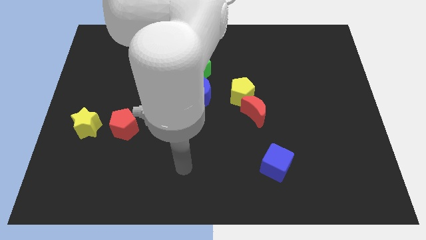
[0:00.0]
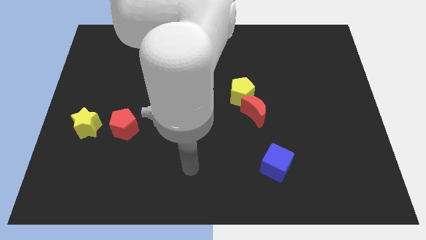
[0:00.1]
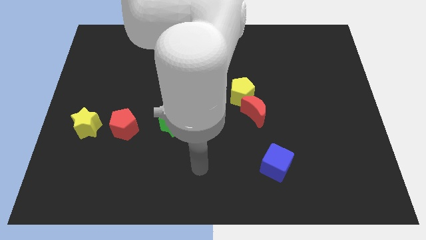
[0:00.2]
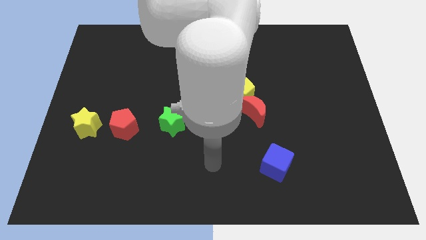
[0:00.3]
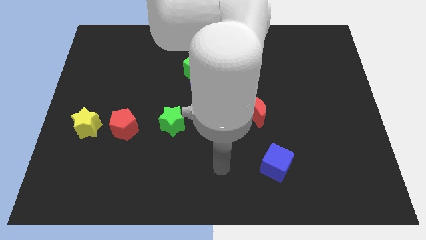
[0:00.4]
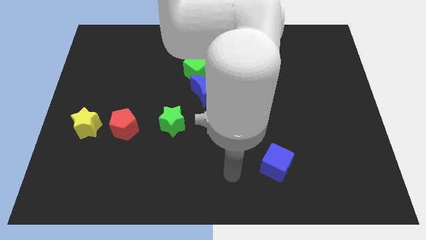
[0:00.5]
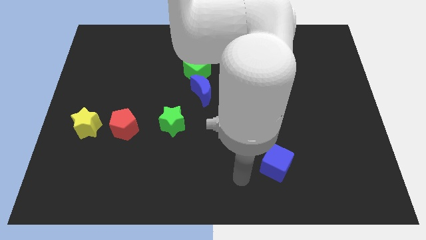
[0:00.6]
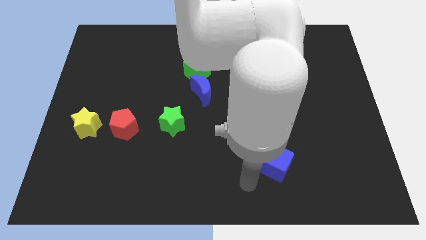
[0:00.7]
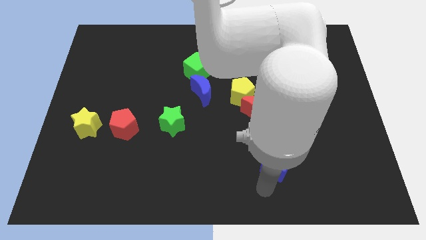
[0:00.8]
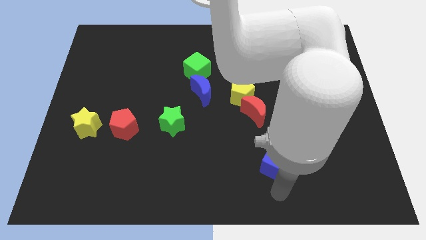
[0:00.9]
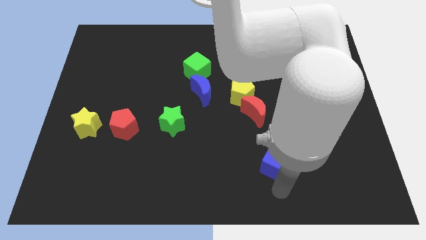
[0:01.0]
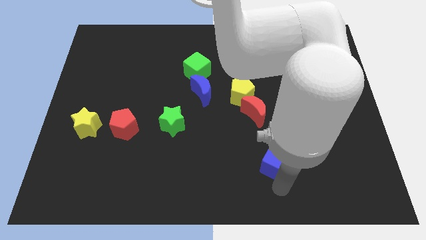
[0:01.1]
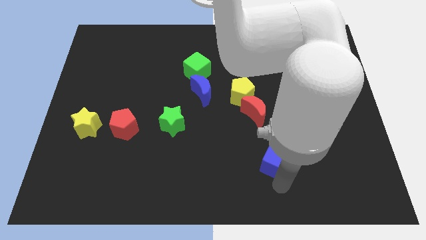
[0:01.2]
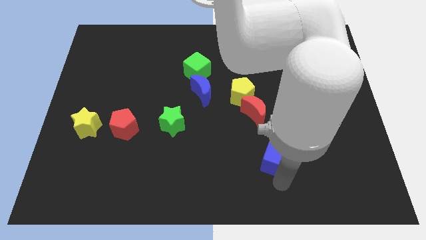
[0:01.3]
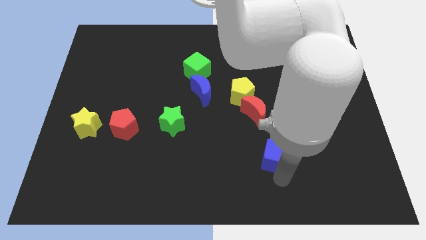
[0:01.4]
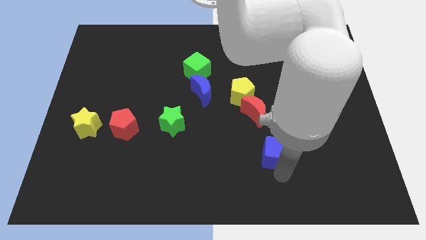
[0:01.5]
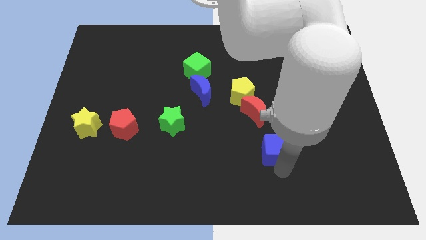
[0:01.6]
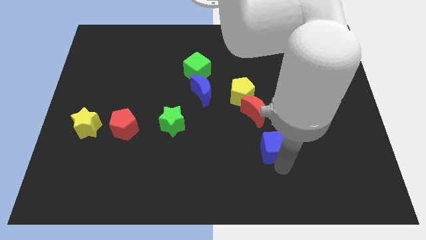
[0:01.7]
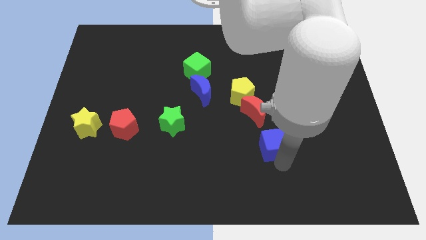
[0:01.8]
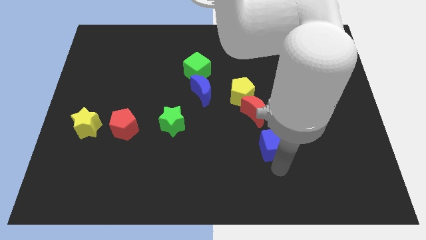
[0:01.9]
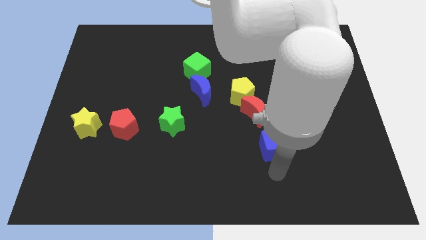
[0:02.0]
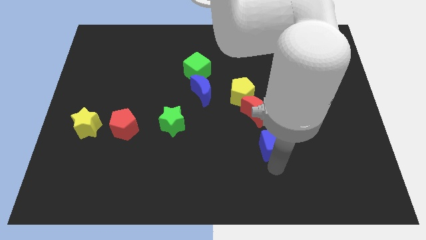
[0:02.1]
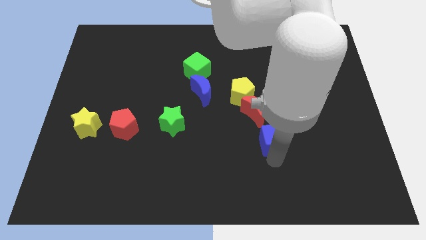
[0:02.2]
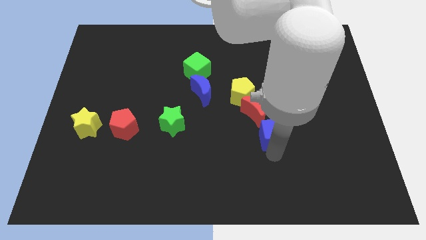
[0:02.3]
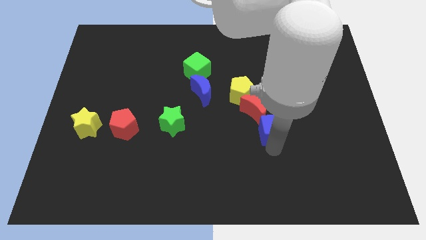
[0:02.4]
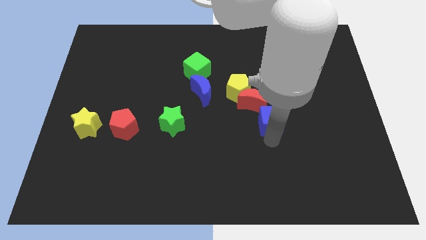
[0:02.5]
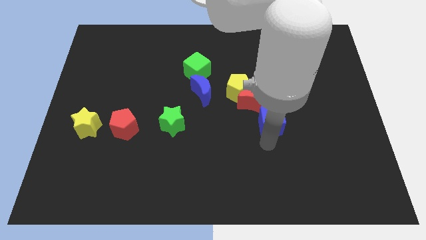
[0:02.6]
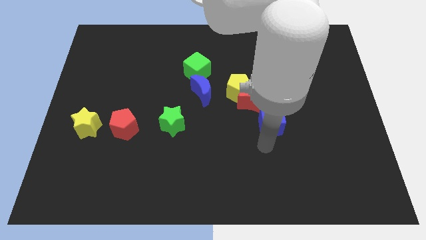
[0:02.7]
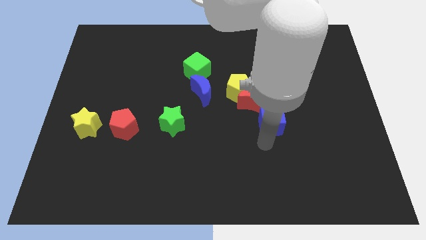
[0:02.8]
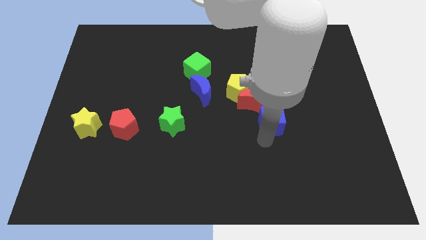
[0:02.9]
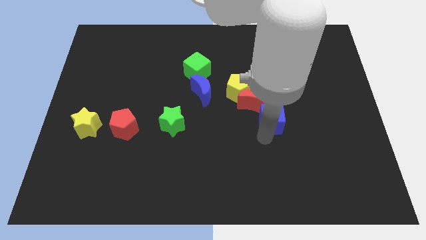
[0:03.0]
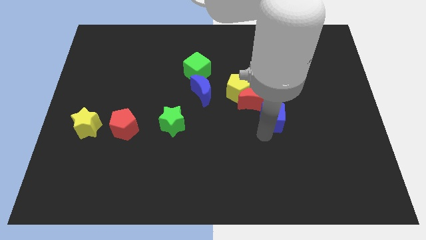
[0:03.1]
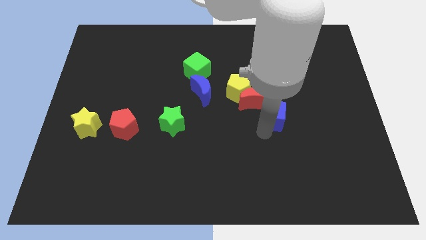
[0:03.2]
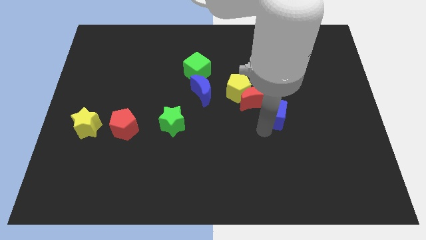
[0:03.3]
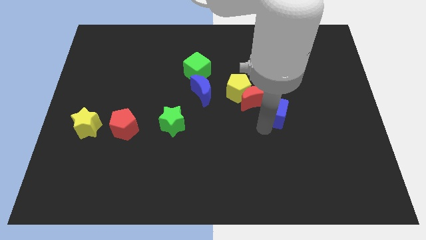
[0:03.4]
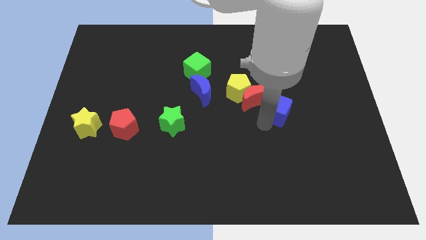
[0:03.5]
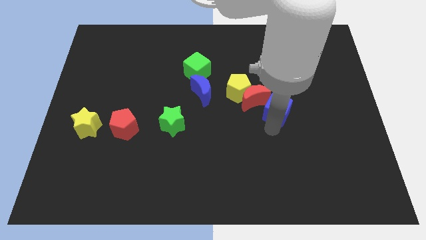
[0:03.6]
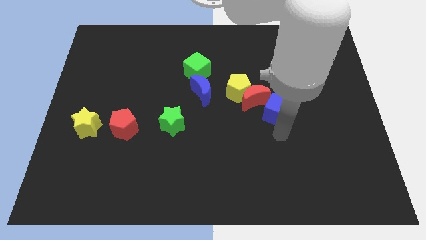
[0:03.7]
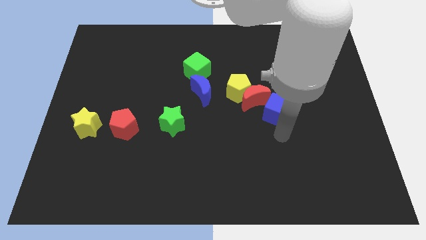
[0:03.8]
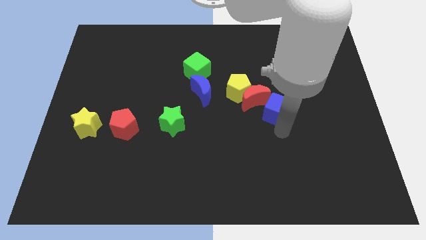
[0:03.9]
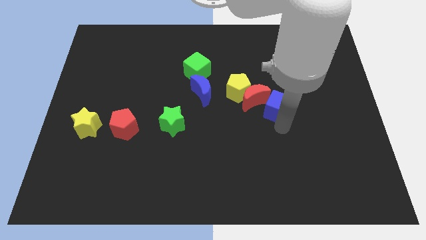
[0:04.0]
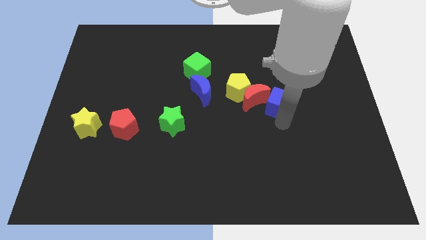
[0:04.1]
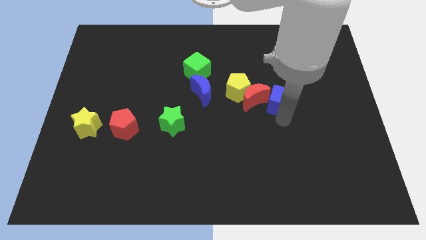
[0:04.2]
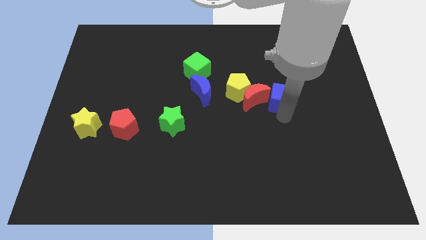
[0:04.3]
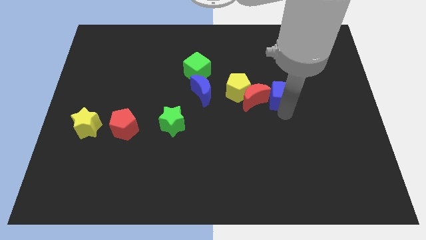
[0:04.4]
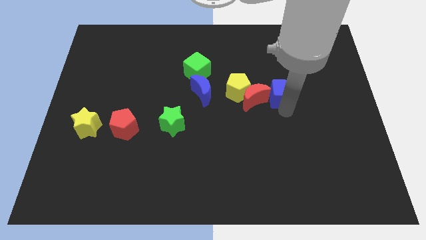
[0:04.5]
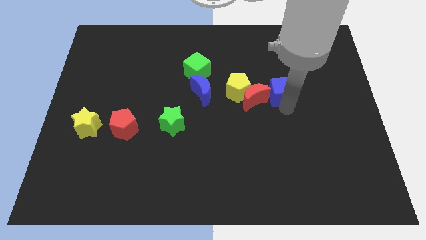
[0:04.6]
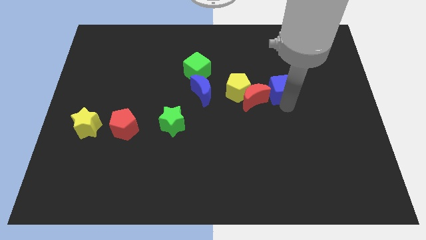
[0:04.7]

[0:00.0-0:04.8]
slide the blue cube up

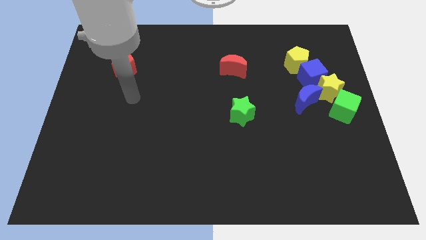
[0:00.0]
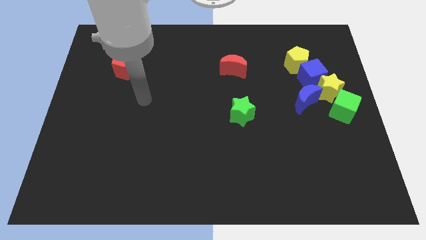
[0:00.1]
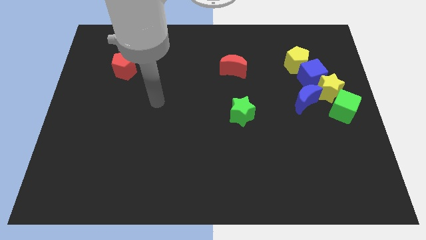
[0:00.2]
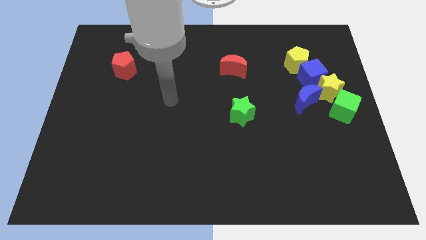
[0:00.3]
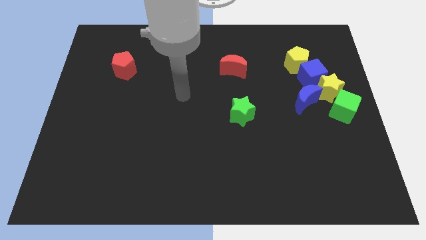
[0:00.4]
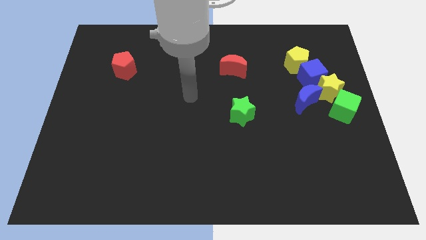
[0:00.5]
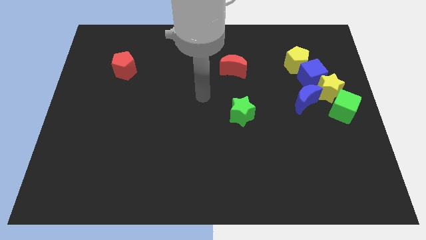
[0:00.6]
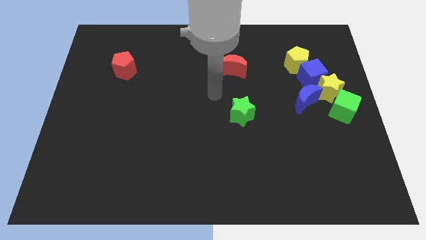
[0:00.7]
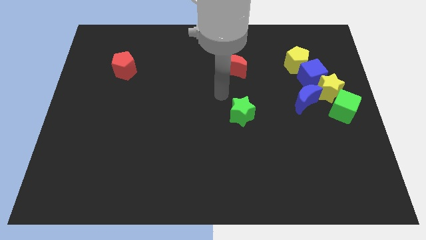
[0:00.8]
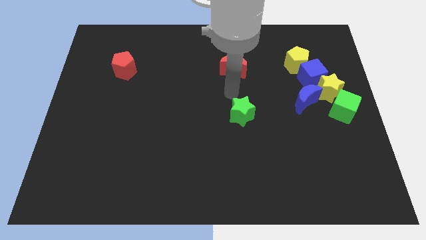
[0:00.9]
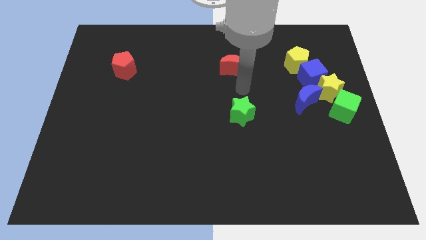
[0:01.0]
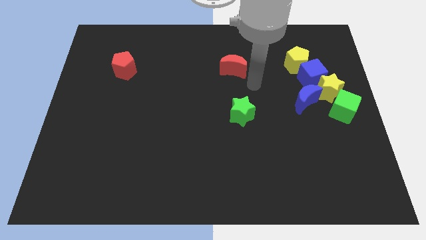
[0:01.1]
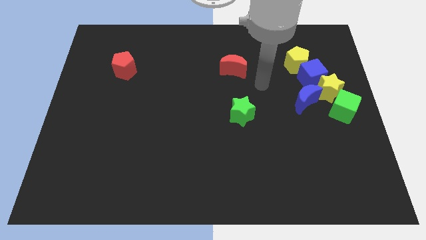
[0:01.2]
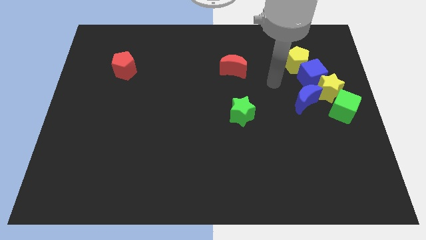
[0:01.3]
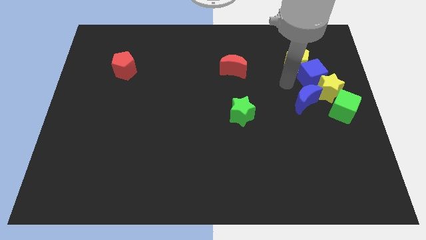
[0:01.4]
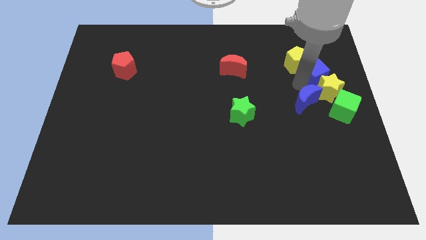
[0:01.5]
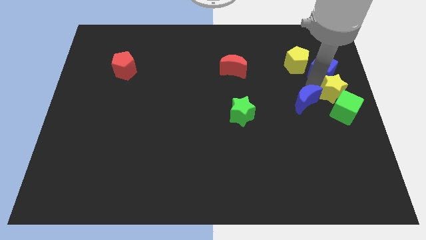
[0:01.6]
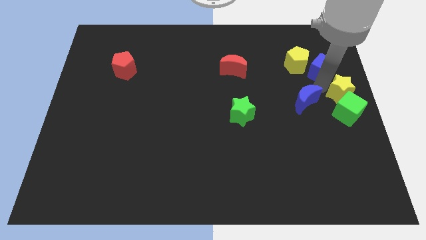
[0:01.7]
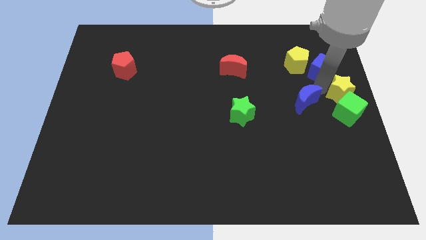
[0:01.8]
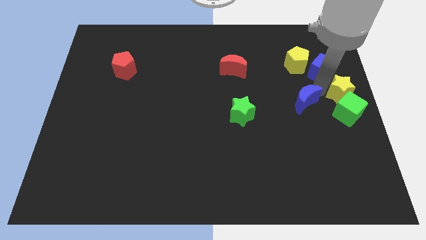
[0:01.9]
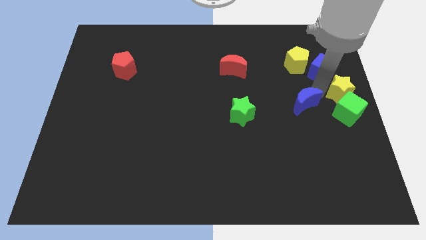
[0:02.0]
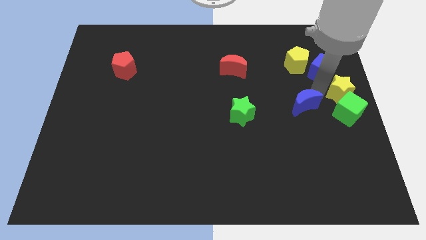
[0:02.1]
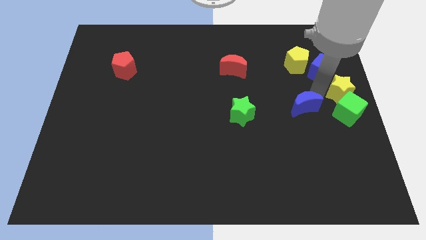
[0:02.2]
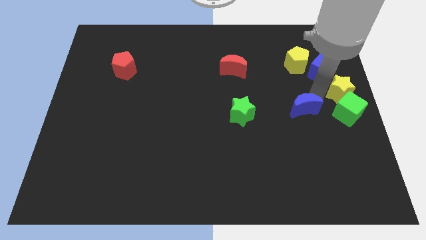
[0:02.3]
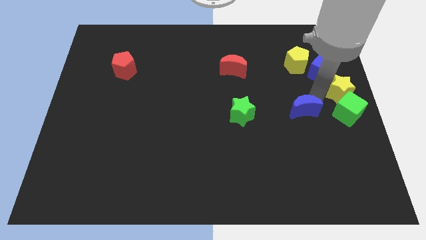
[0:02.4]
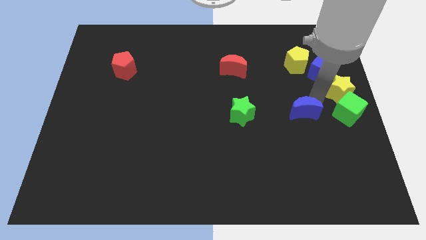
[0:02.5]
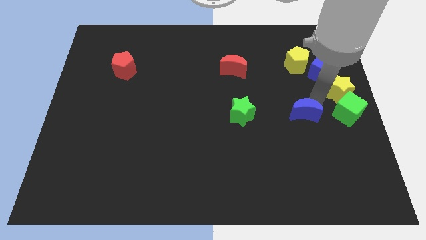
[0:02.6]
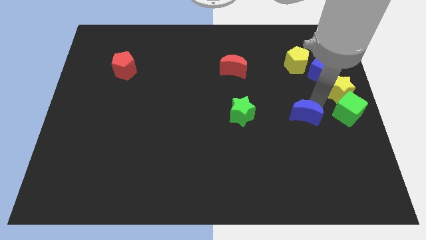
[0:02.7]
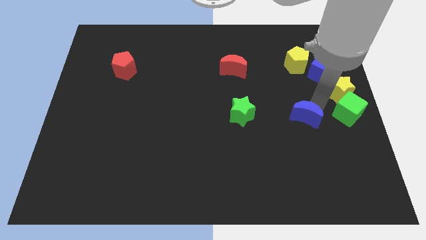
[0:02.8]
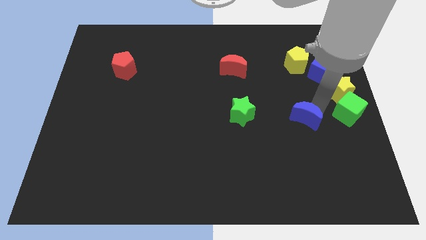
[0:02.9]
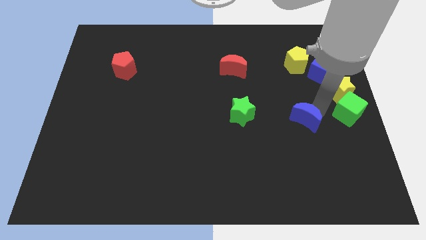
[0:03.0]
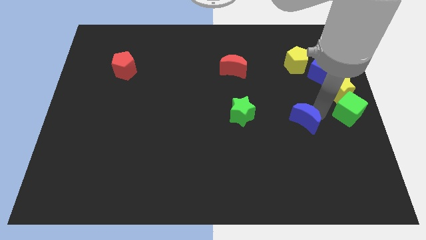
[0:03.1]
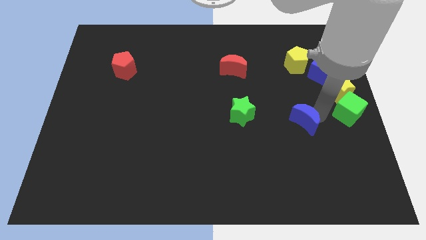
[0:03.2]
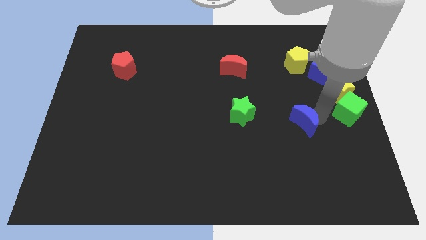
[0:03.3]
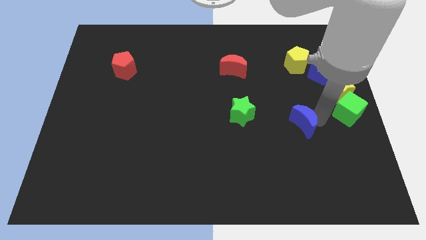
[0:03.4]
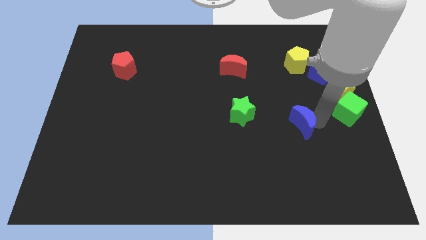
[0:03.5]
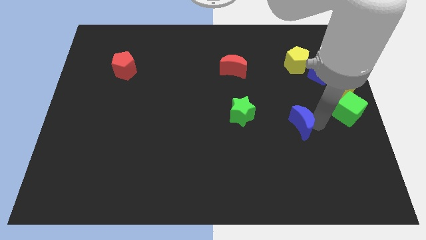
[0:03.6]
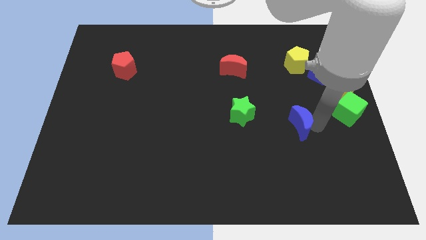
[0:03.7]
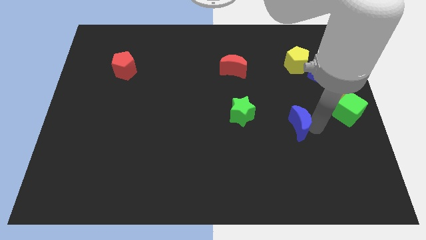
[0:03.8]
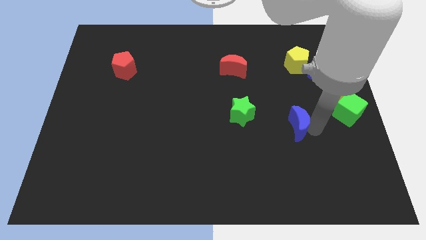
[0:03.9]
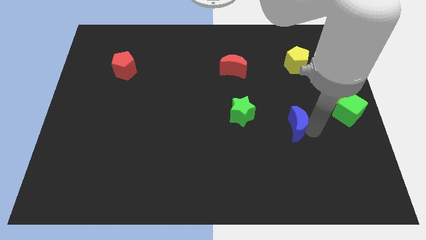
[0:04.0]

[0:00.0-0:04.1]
slightly slide the blue moon downwards and then left
